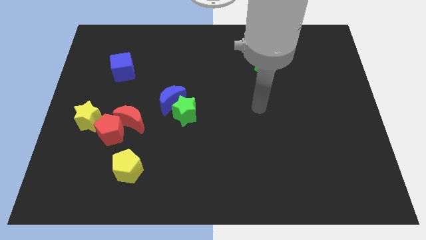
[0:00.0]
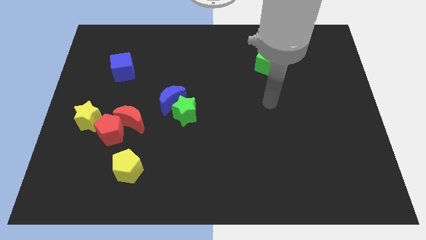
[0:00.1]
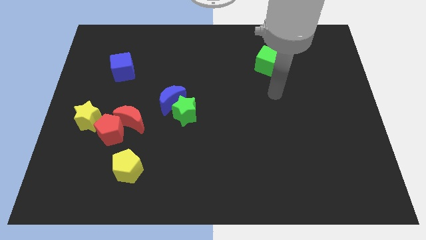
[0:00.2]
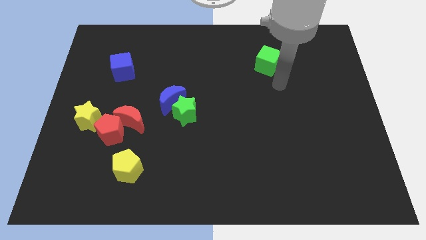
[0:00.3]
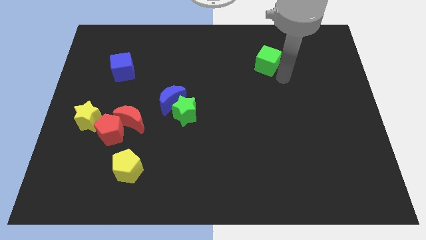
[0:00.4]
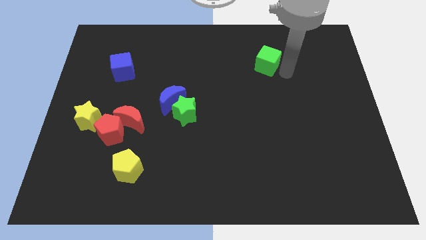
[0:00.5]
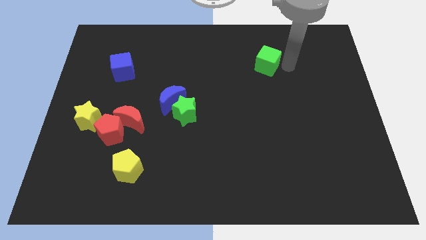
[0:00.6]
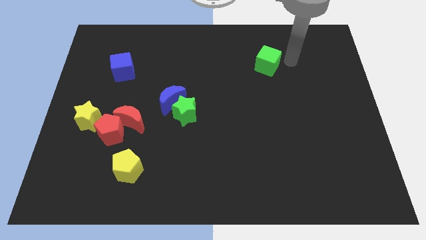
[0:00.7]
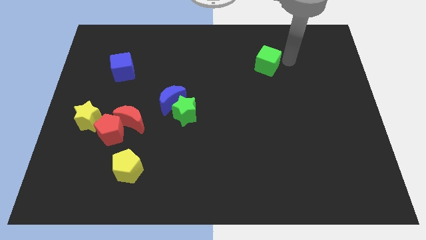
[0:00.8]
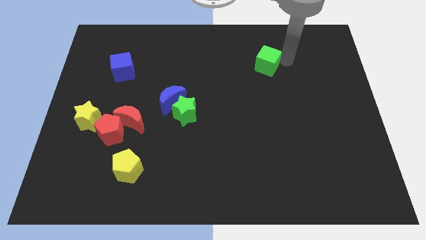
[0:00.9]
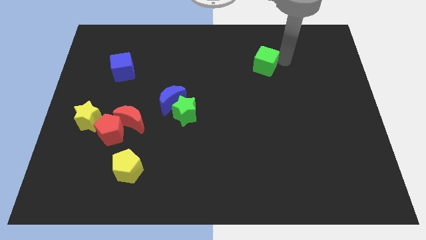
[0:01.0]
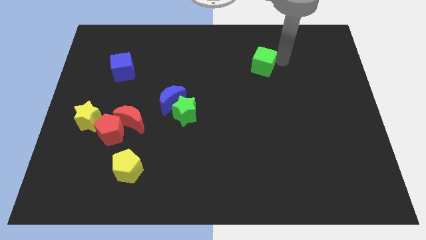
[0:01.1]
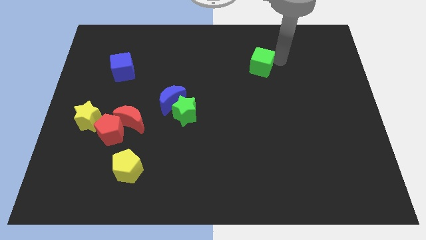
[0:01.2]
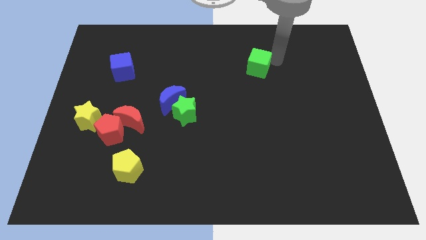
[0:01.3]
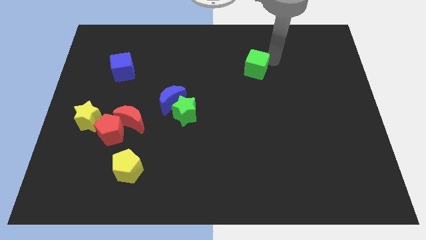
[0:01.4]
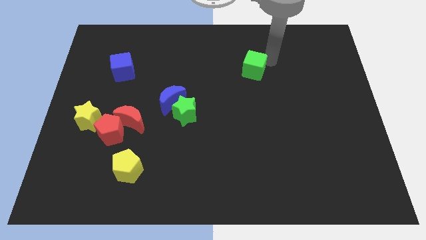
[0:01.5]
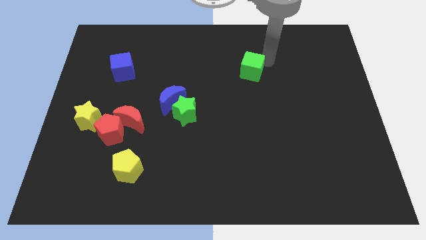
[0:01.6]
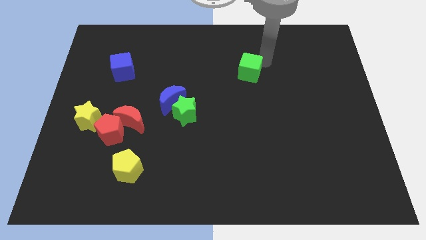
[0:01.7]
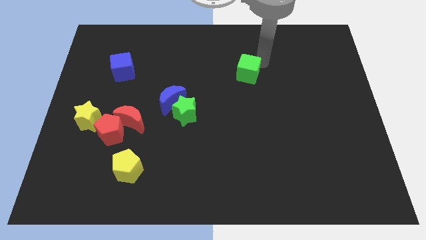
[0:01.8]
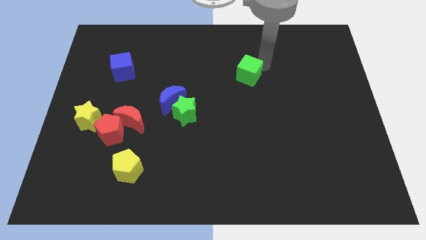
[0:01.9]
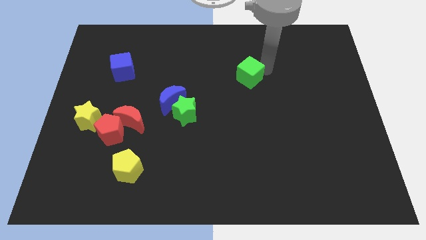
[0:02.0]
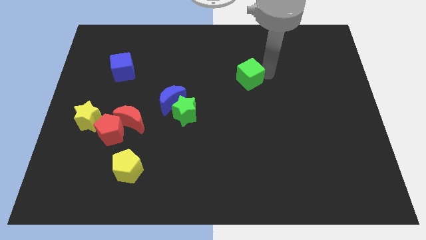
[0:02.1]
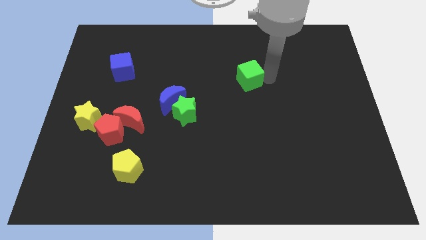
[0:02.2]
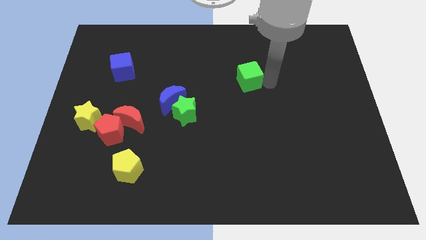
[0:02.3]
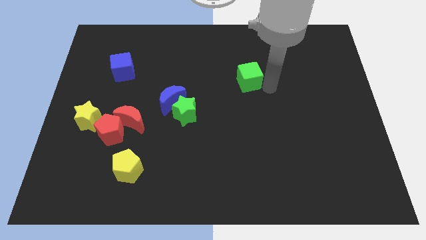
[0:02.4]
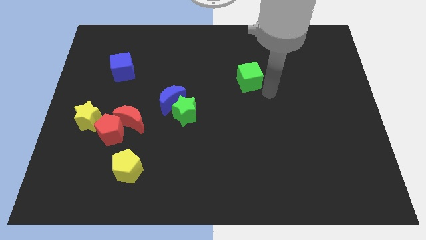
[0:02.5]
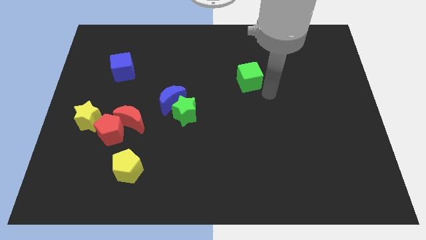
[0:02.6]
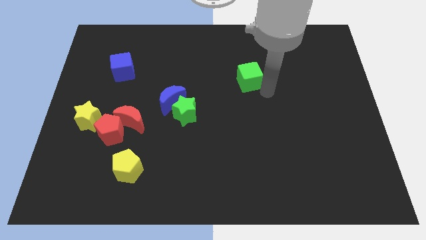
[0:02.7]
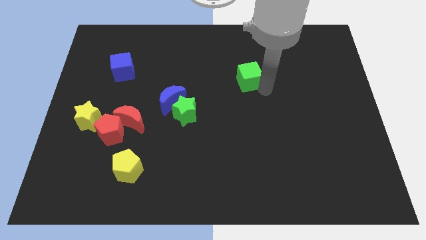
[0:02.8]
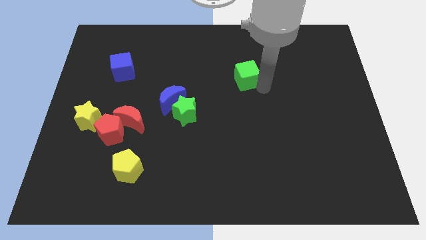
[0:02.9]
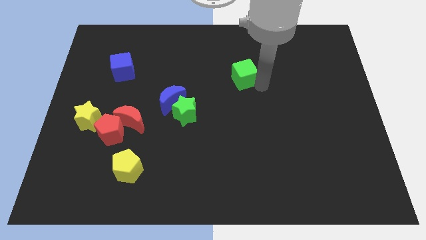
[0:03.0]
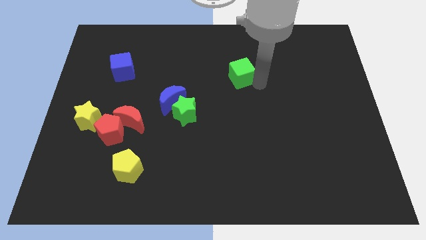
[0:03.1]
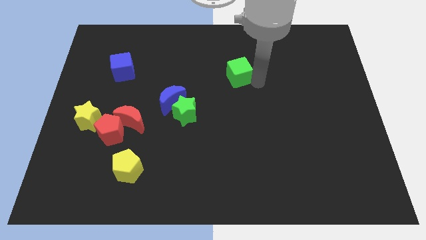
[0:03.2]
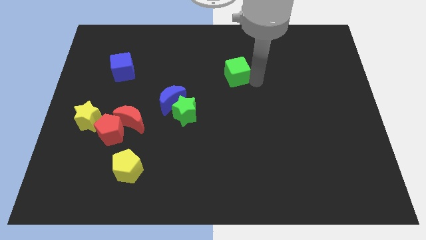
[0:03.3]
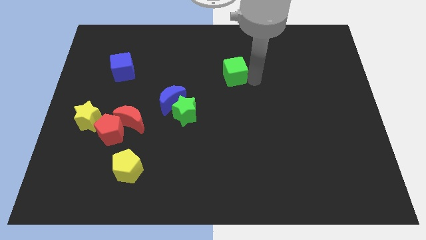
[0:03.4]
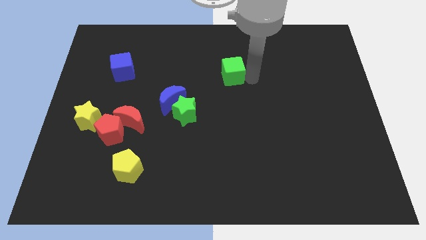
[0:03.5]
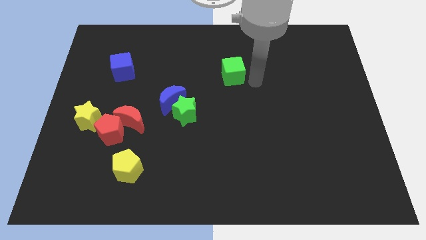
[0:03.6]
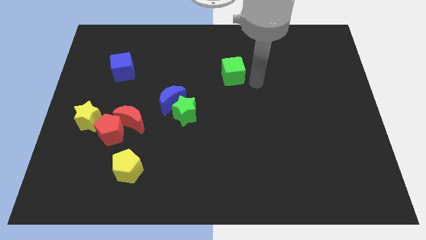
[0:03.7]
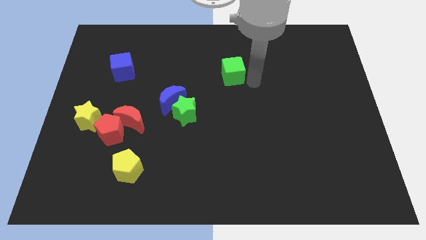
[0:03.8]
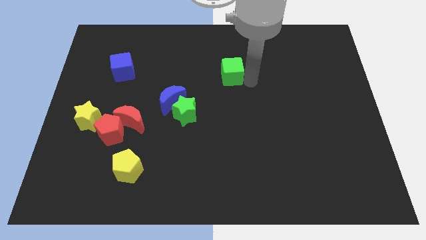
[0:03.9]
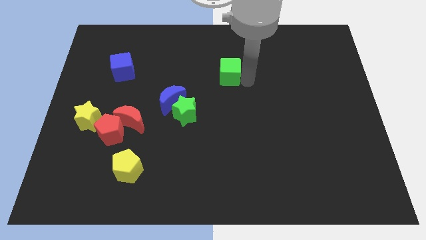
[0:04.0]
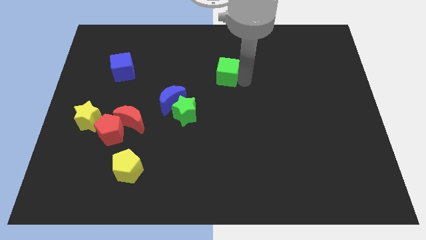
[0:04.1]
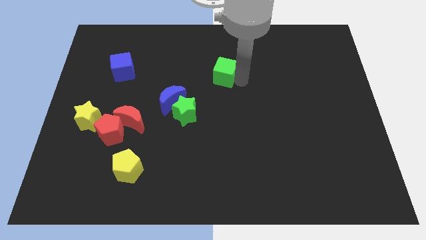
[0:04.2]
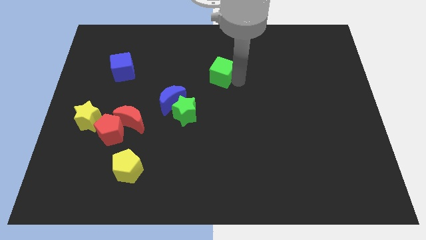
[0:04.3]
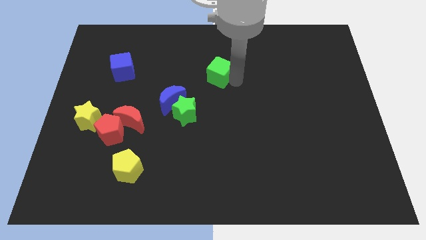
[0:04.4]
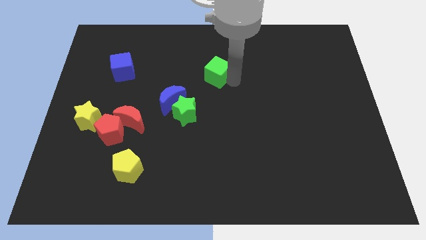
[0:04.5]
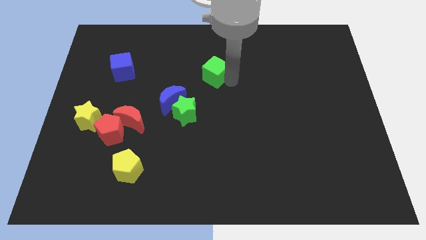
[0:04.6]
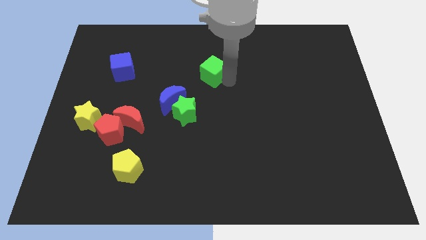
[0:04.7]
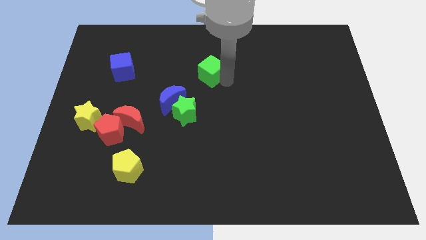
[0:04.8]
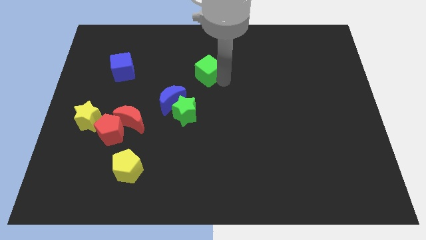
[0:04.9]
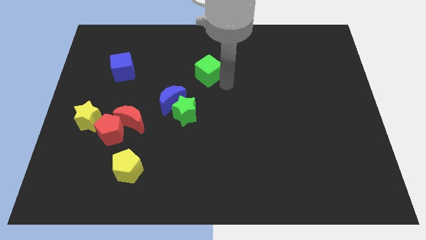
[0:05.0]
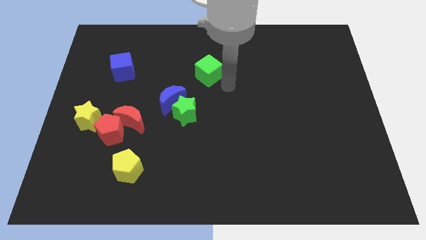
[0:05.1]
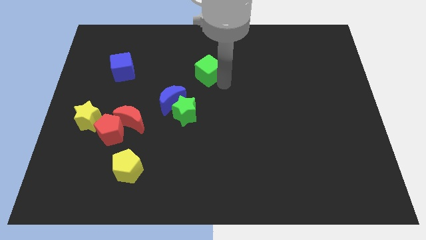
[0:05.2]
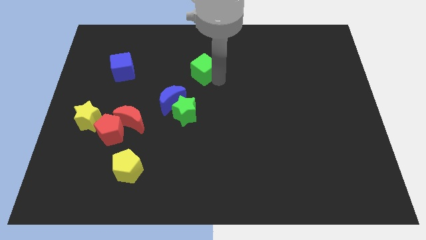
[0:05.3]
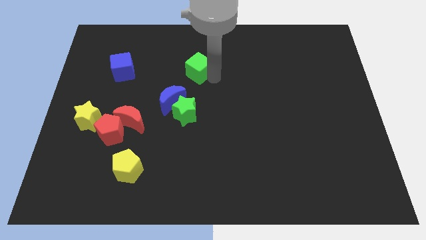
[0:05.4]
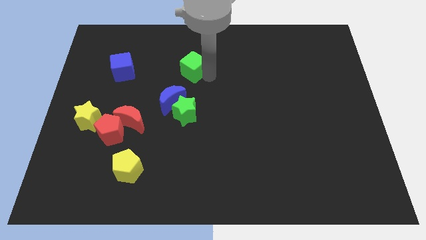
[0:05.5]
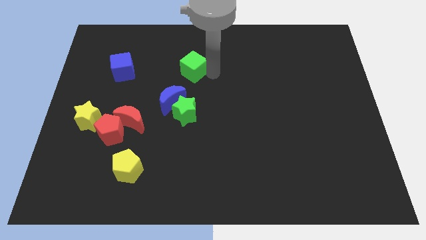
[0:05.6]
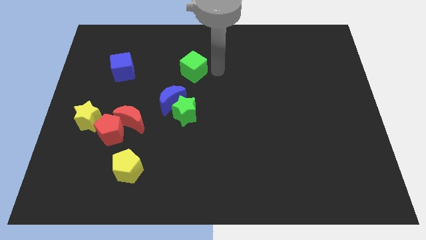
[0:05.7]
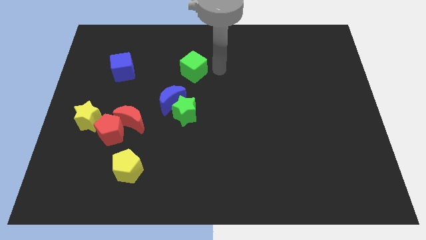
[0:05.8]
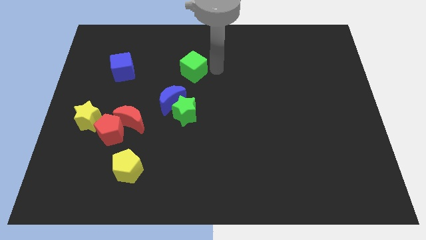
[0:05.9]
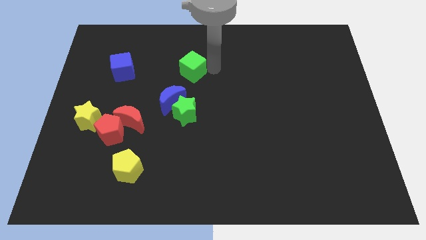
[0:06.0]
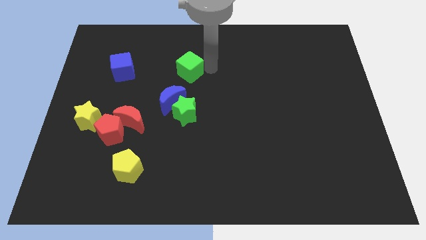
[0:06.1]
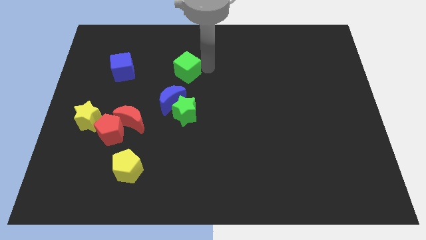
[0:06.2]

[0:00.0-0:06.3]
push the green cube just right of the blue cube

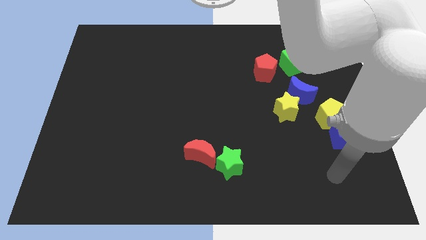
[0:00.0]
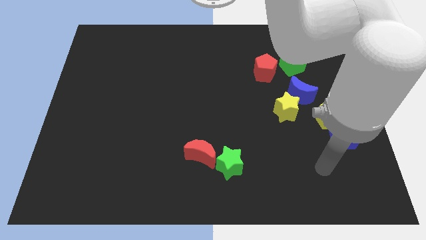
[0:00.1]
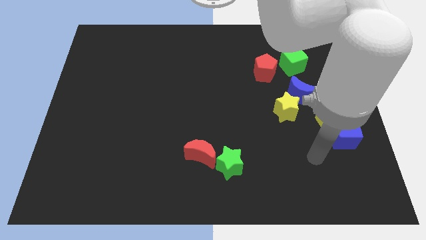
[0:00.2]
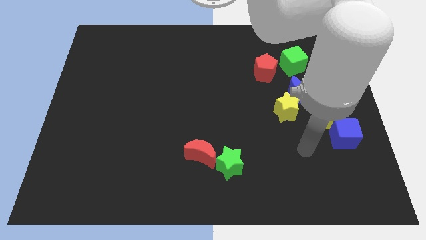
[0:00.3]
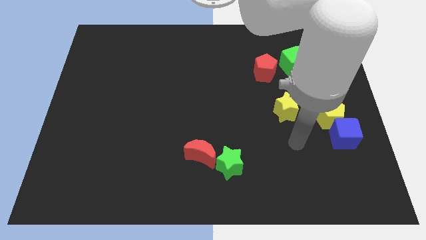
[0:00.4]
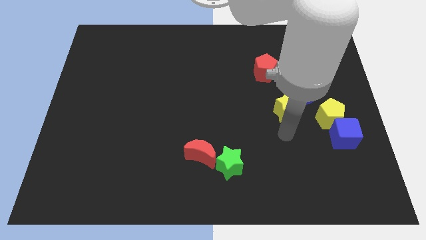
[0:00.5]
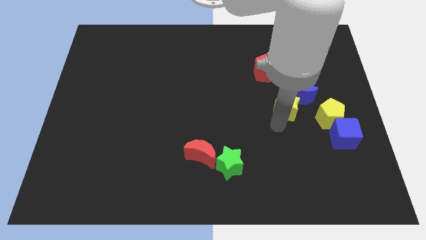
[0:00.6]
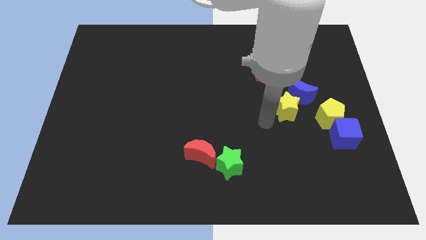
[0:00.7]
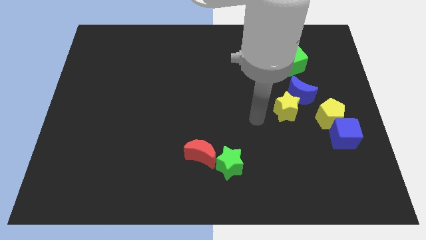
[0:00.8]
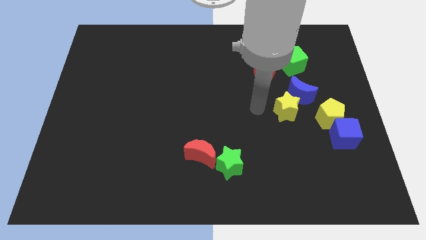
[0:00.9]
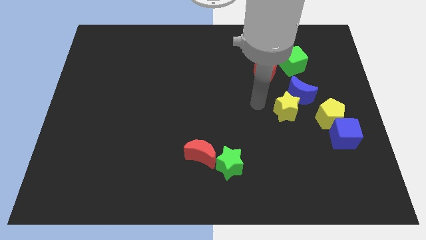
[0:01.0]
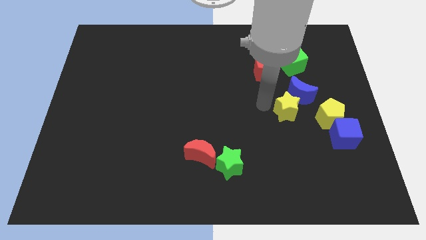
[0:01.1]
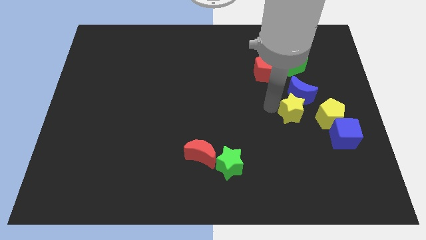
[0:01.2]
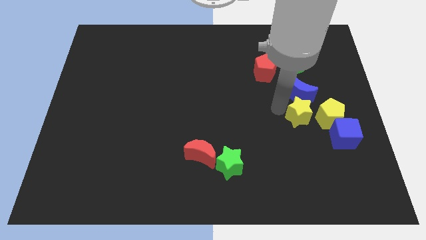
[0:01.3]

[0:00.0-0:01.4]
push the yellow star to the top left side of the blue cube
